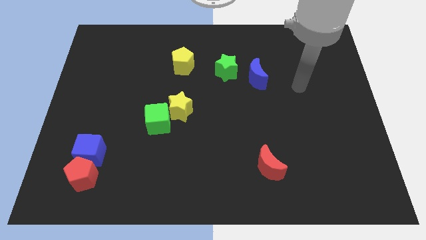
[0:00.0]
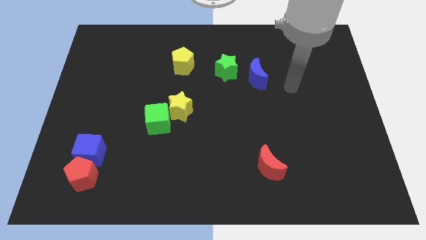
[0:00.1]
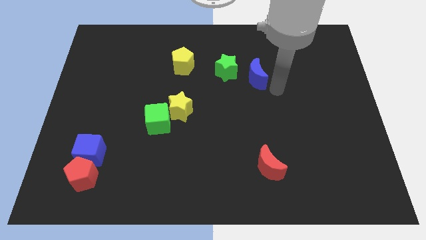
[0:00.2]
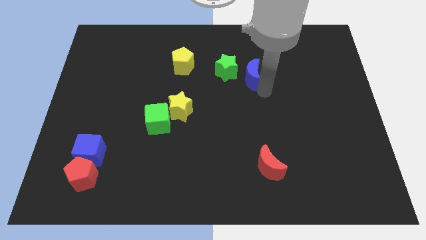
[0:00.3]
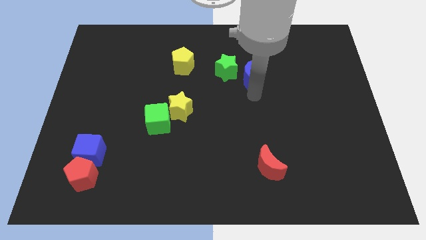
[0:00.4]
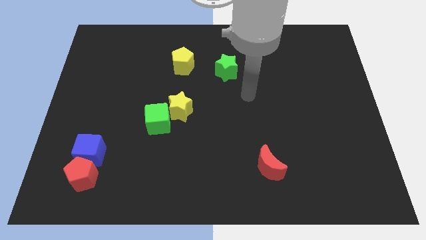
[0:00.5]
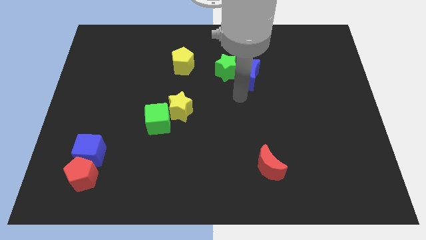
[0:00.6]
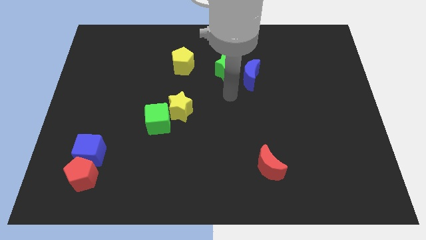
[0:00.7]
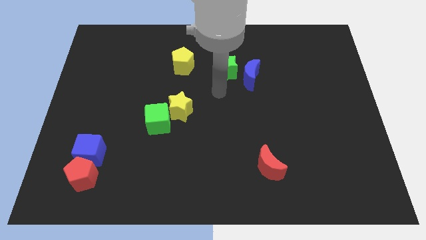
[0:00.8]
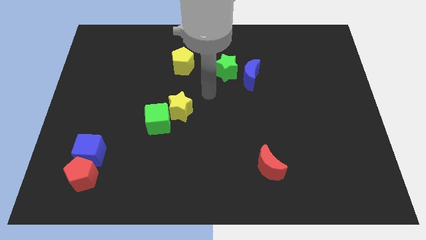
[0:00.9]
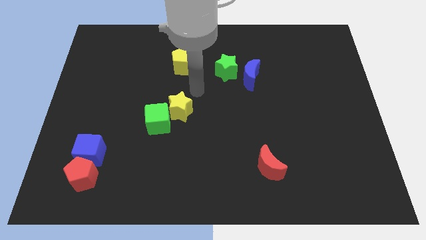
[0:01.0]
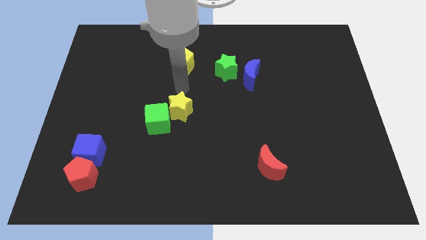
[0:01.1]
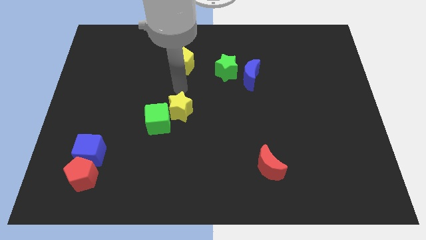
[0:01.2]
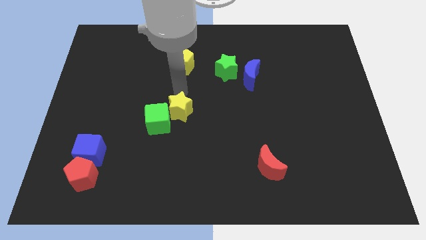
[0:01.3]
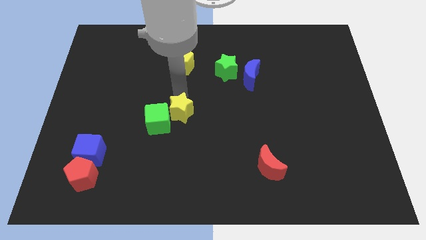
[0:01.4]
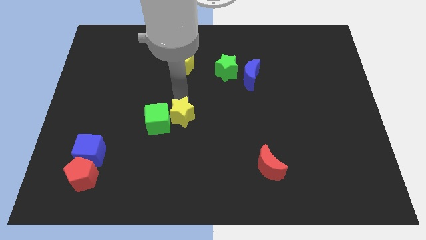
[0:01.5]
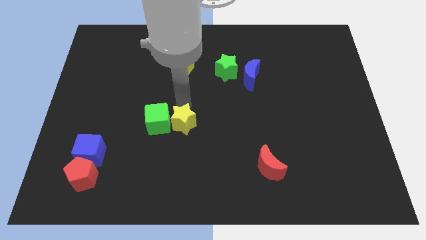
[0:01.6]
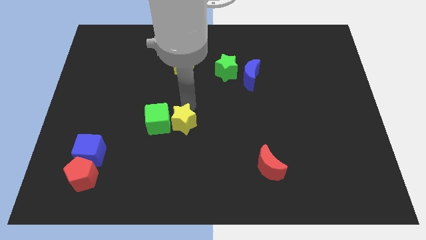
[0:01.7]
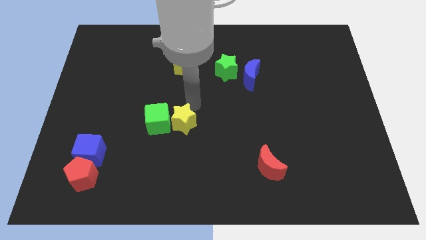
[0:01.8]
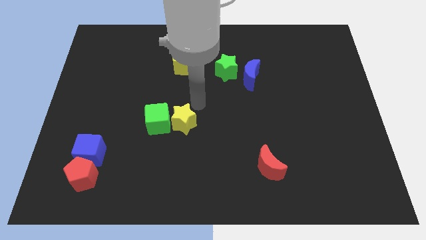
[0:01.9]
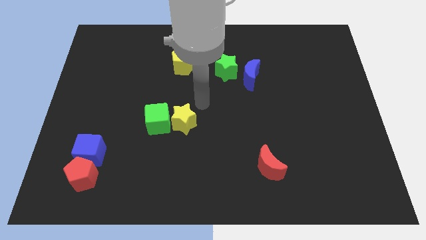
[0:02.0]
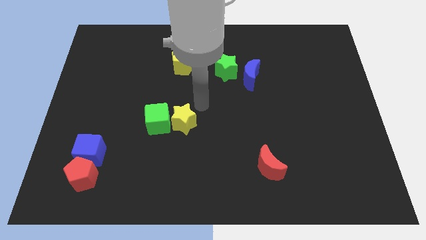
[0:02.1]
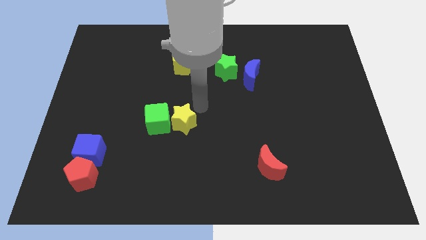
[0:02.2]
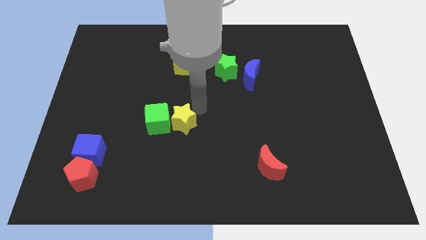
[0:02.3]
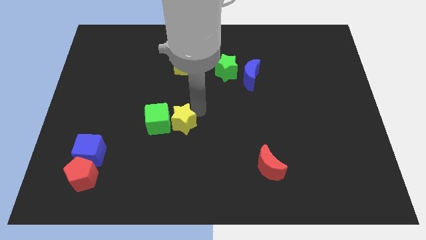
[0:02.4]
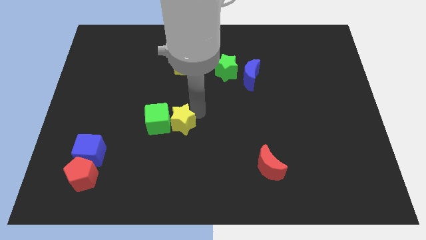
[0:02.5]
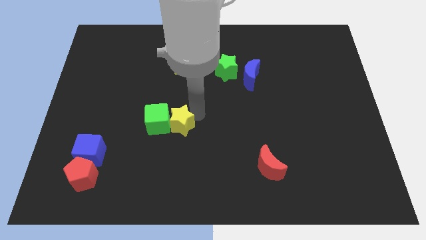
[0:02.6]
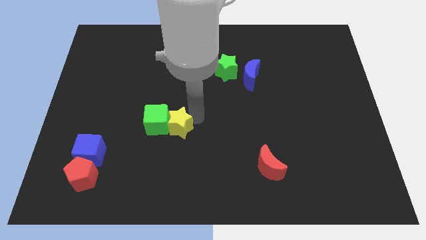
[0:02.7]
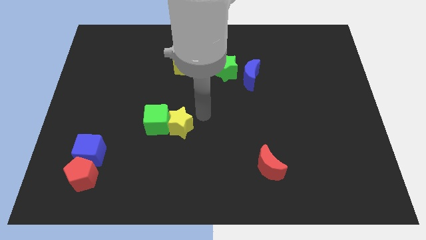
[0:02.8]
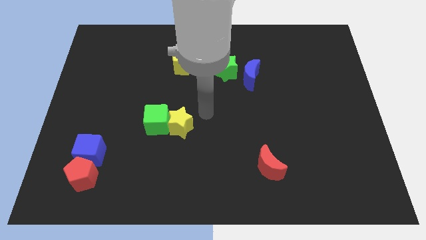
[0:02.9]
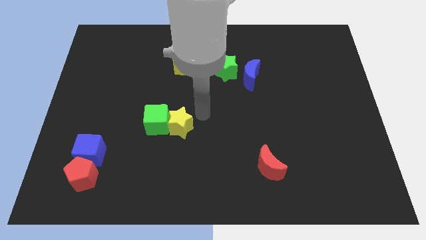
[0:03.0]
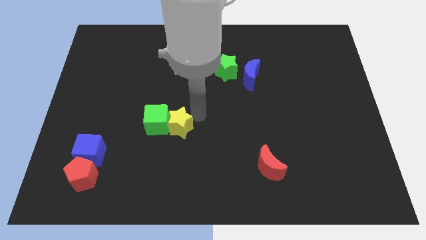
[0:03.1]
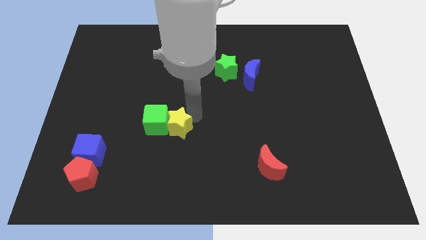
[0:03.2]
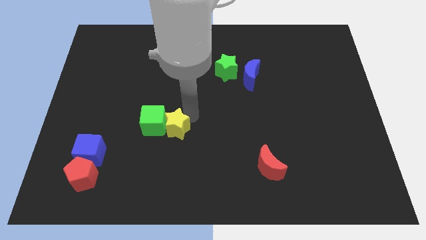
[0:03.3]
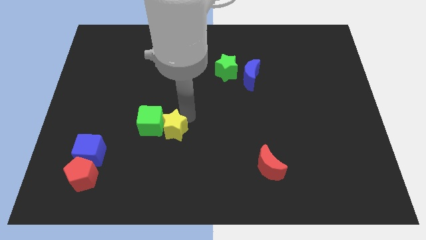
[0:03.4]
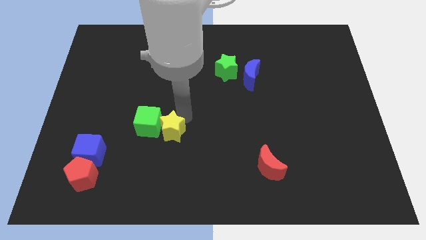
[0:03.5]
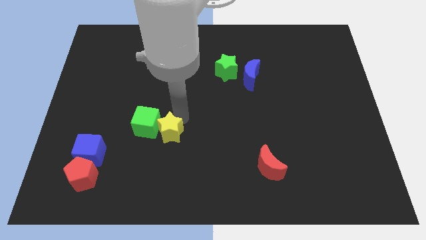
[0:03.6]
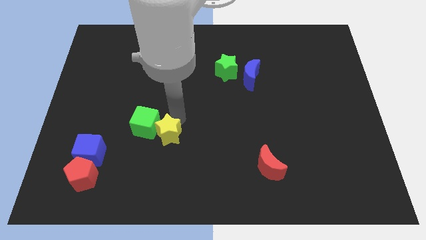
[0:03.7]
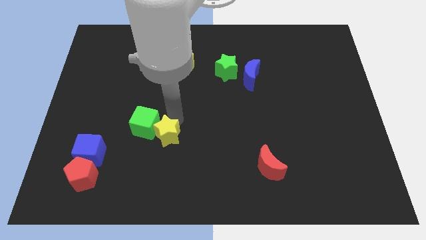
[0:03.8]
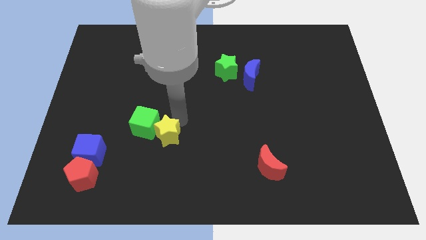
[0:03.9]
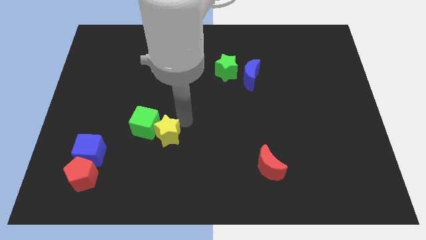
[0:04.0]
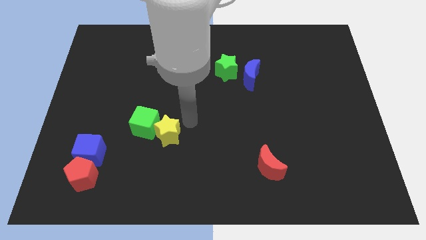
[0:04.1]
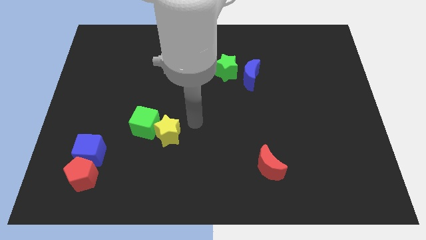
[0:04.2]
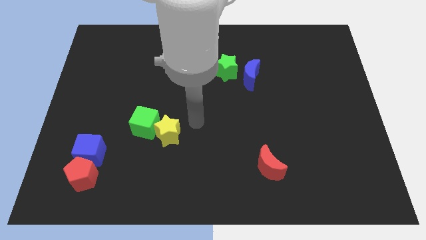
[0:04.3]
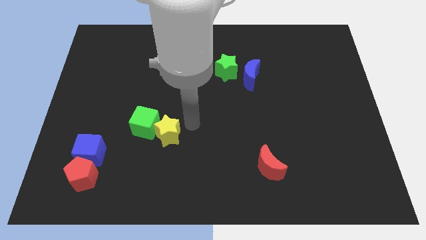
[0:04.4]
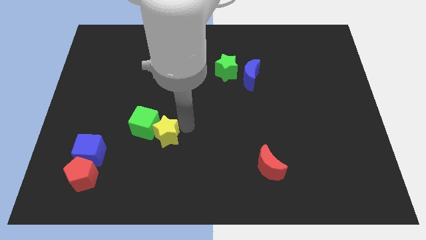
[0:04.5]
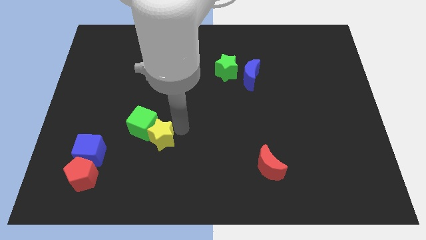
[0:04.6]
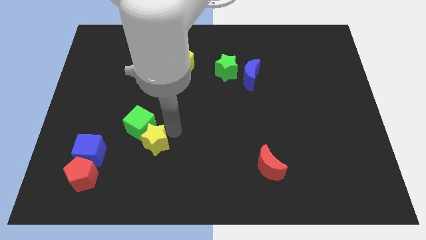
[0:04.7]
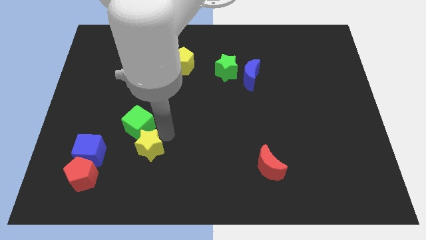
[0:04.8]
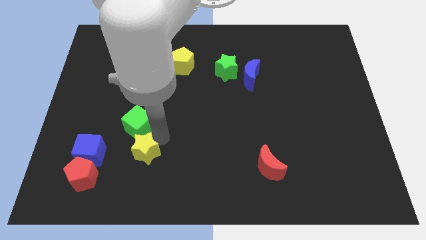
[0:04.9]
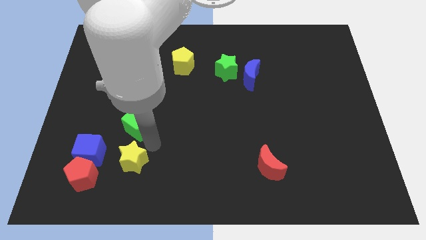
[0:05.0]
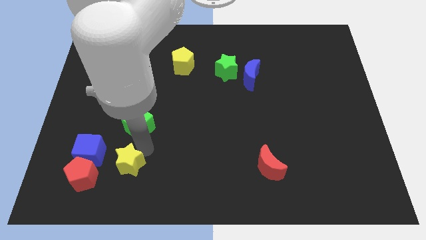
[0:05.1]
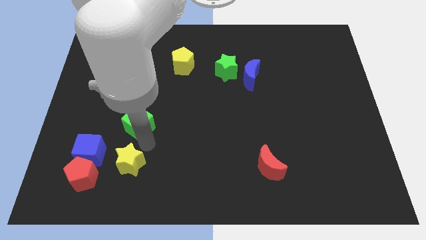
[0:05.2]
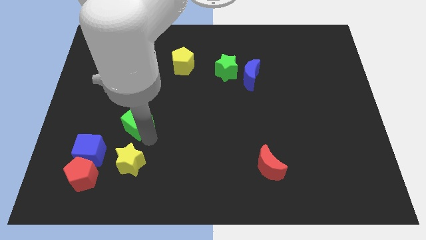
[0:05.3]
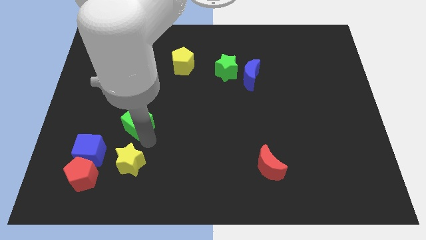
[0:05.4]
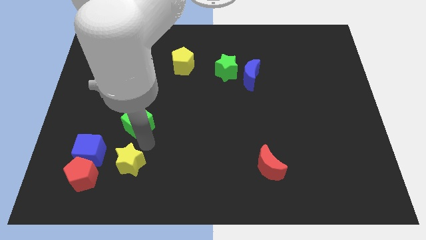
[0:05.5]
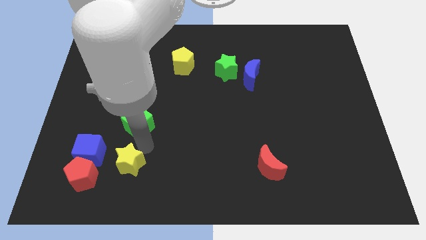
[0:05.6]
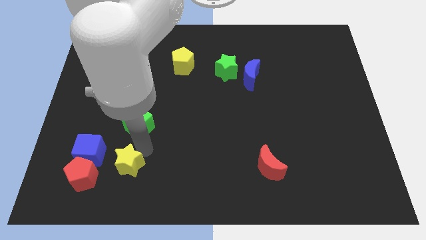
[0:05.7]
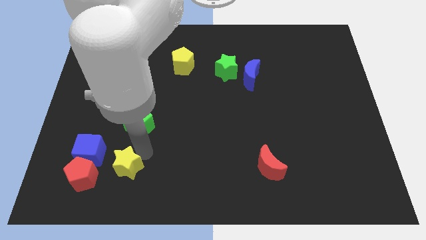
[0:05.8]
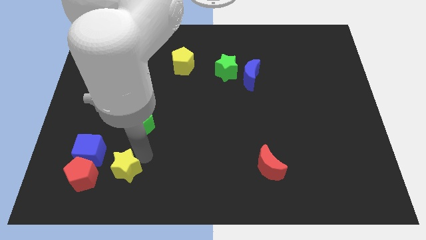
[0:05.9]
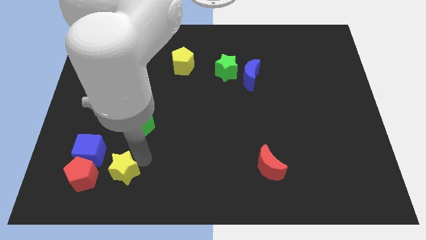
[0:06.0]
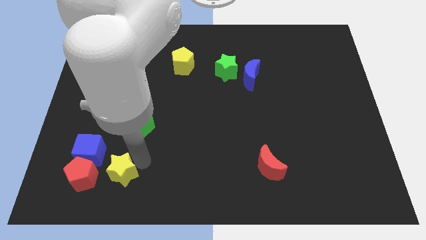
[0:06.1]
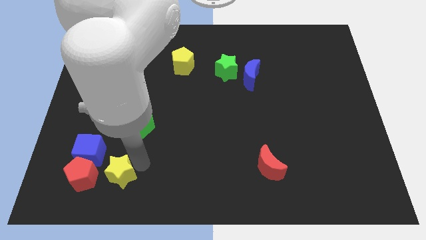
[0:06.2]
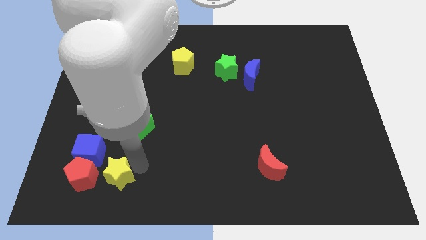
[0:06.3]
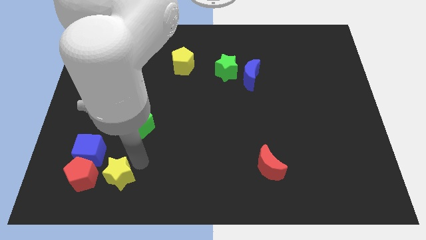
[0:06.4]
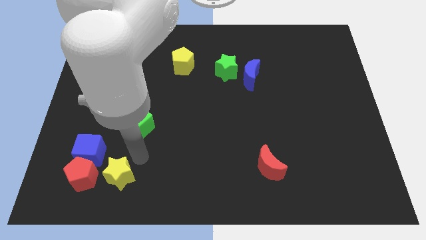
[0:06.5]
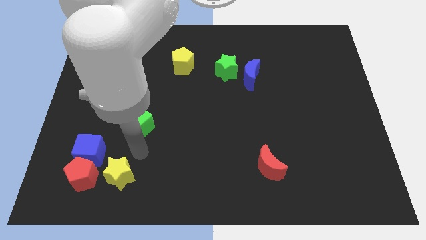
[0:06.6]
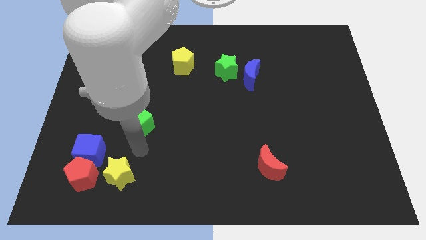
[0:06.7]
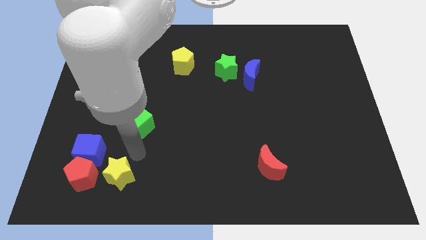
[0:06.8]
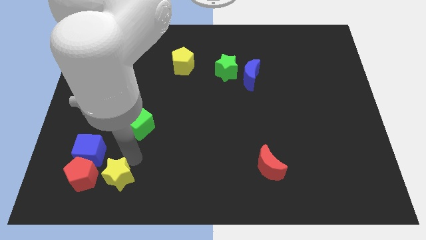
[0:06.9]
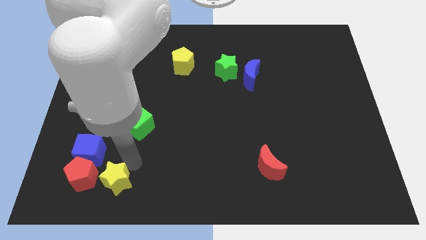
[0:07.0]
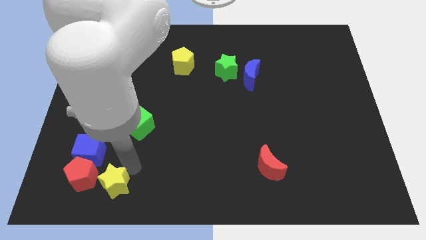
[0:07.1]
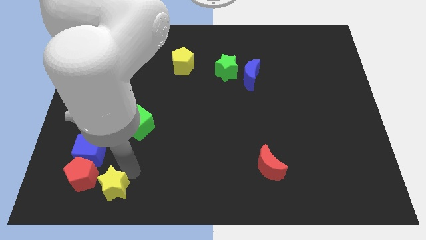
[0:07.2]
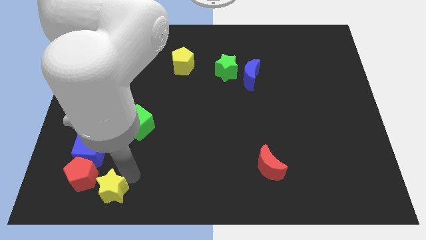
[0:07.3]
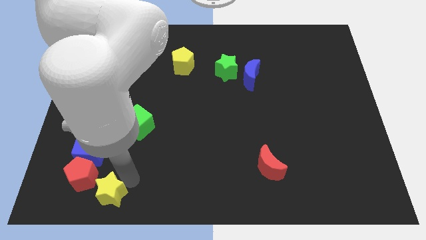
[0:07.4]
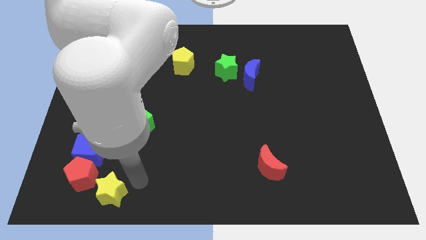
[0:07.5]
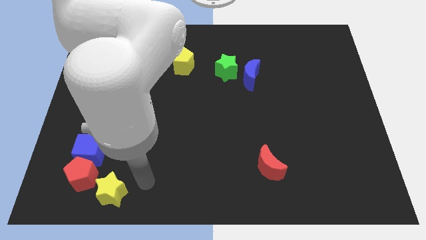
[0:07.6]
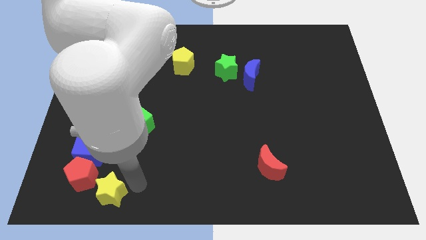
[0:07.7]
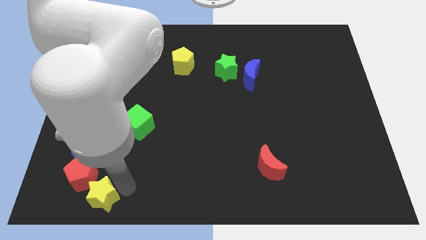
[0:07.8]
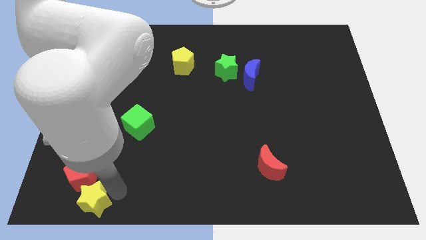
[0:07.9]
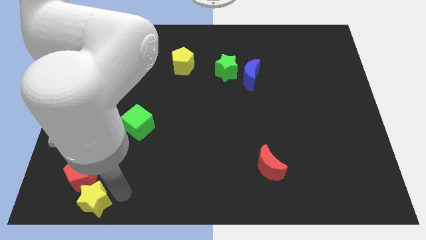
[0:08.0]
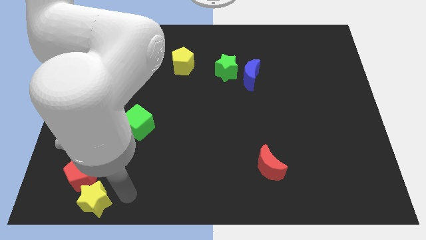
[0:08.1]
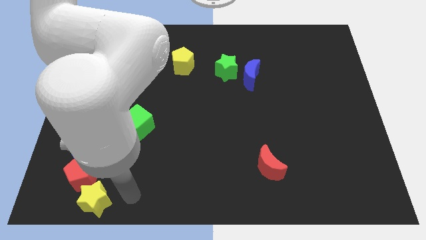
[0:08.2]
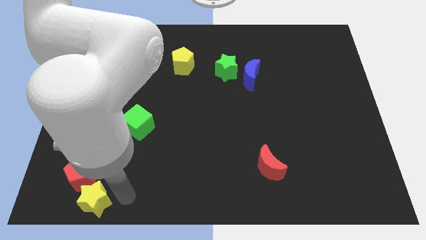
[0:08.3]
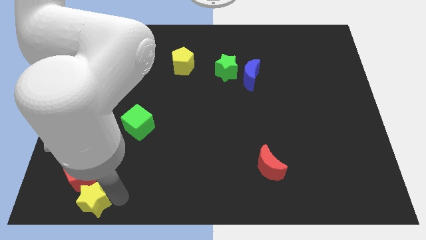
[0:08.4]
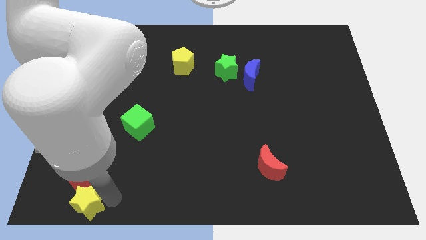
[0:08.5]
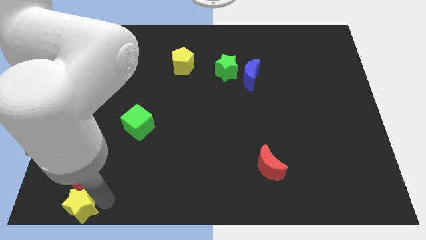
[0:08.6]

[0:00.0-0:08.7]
put the yellow star to the bottom left corner
